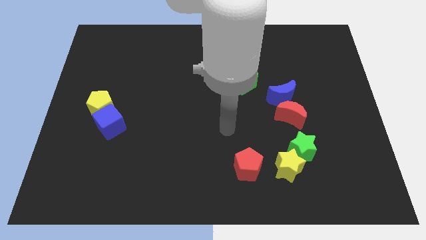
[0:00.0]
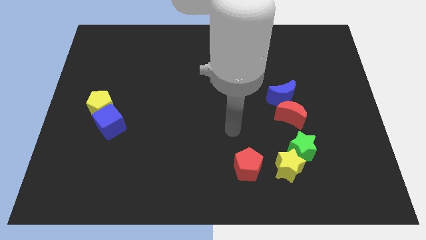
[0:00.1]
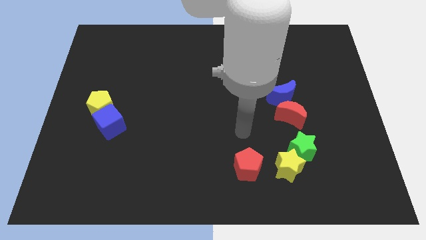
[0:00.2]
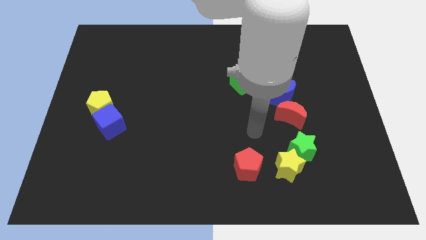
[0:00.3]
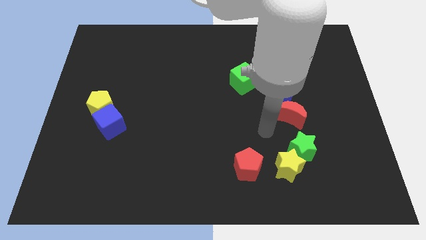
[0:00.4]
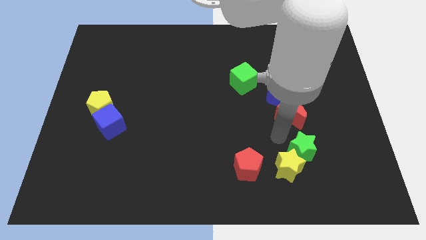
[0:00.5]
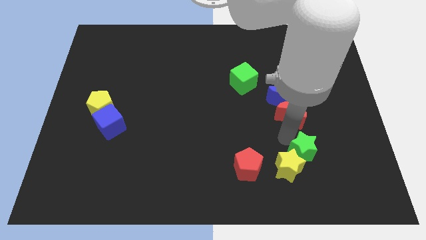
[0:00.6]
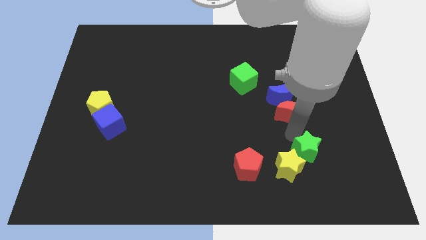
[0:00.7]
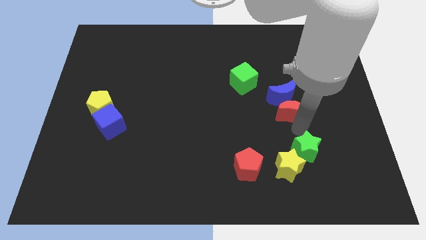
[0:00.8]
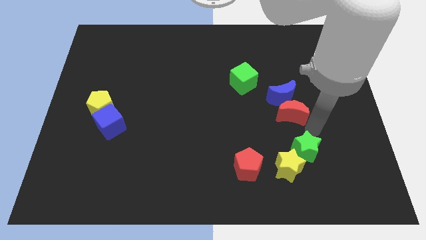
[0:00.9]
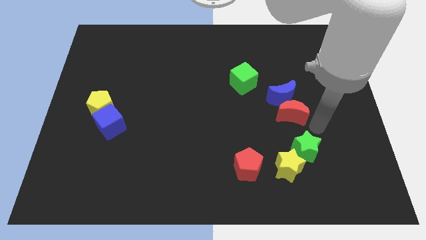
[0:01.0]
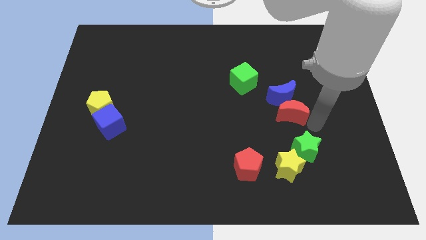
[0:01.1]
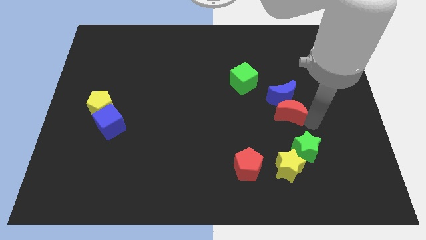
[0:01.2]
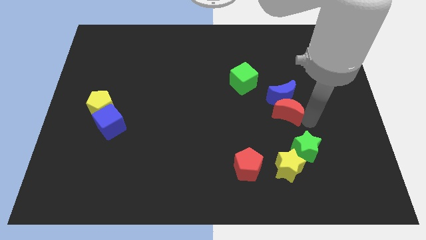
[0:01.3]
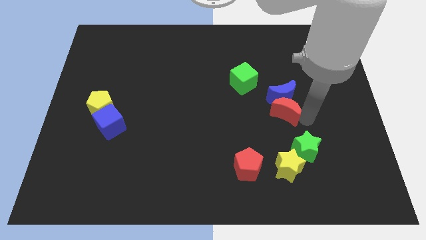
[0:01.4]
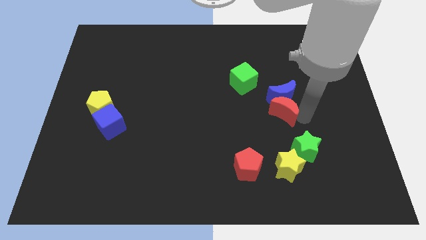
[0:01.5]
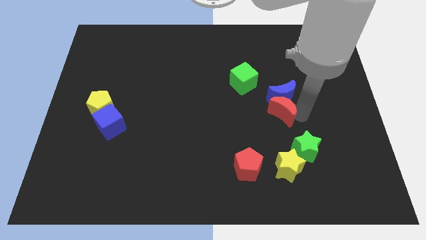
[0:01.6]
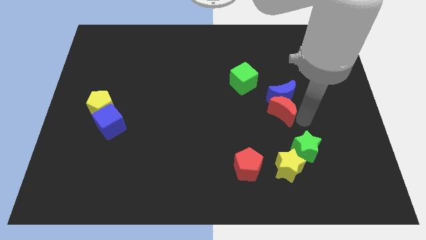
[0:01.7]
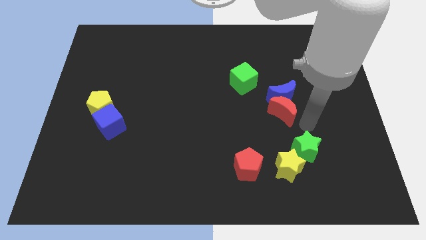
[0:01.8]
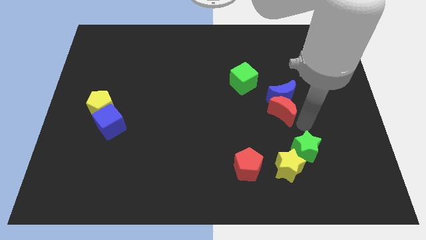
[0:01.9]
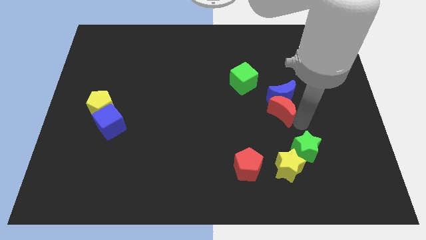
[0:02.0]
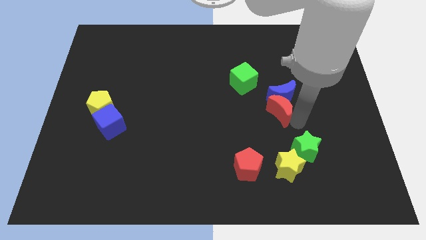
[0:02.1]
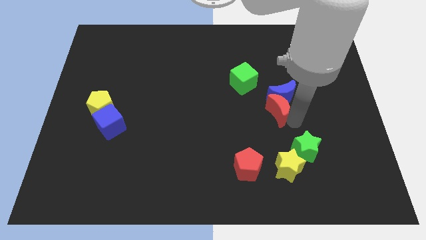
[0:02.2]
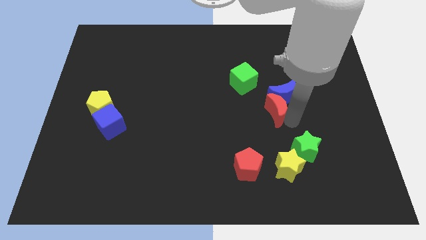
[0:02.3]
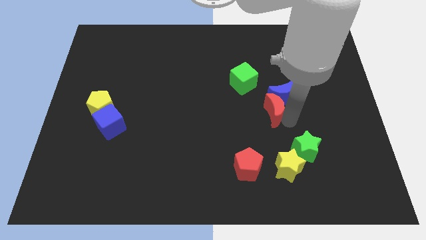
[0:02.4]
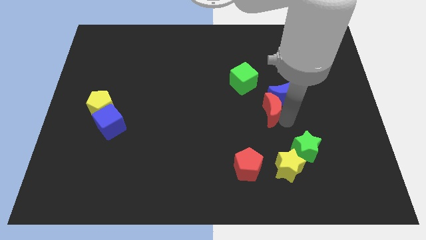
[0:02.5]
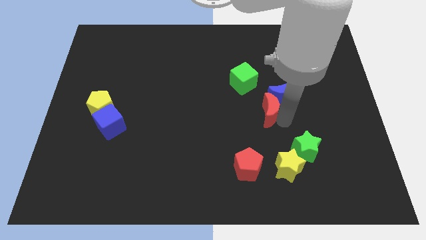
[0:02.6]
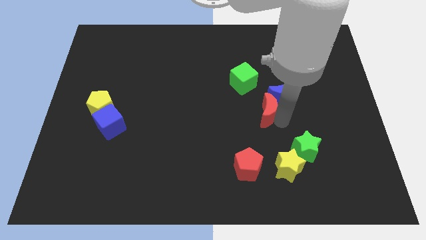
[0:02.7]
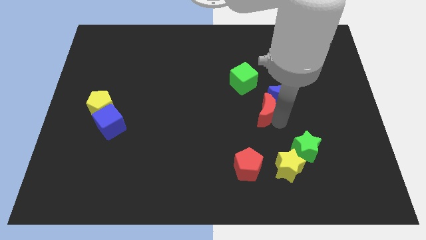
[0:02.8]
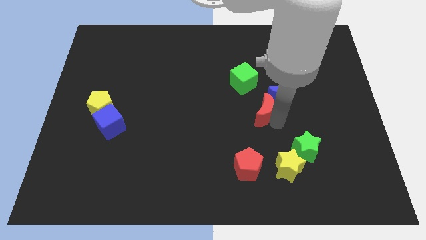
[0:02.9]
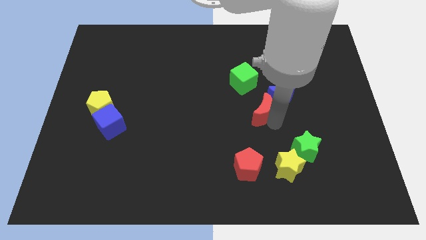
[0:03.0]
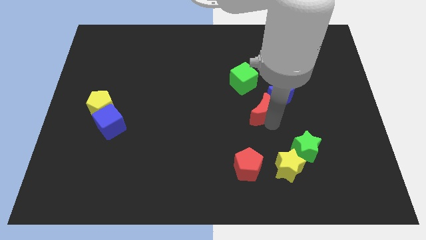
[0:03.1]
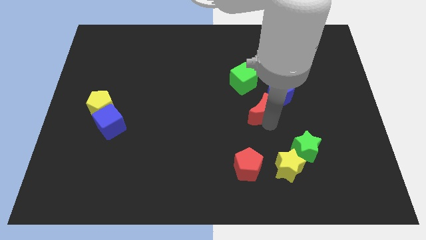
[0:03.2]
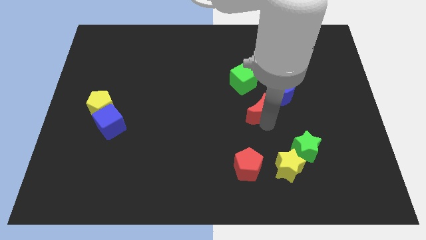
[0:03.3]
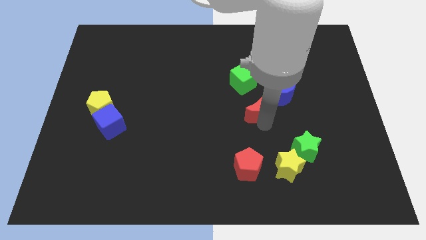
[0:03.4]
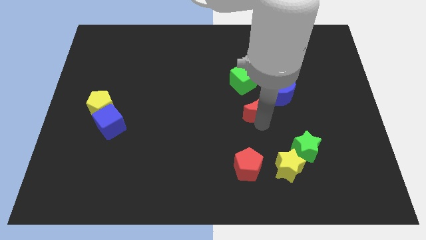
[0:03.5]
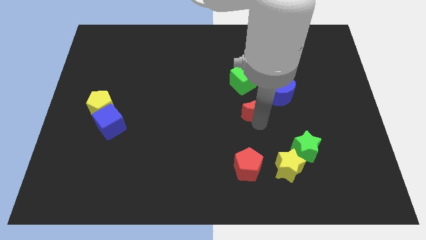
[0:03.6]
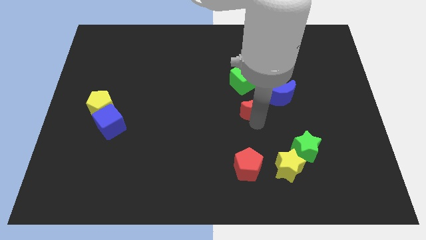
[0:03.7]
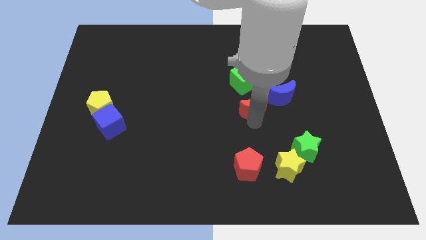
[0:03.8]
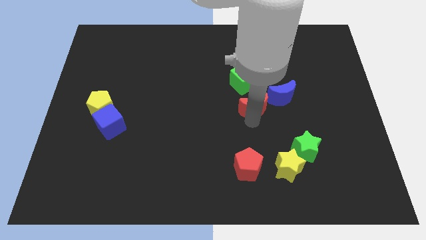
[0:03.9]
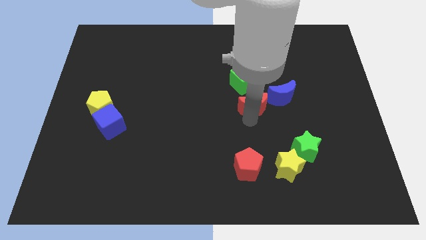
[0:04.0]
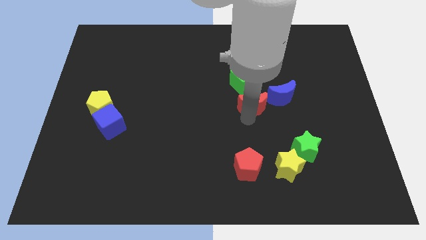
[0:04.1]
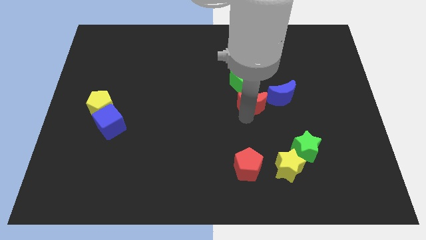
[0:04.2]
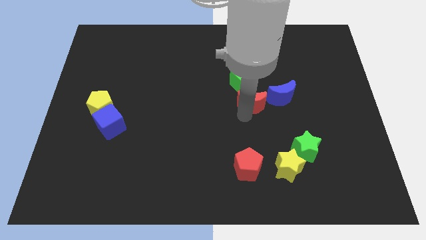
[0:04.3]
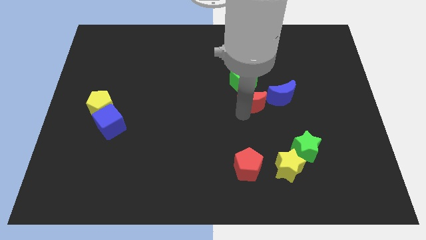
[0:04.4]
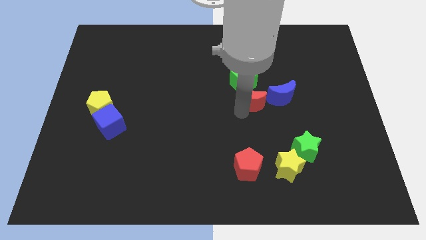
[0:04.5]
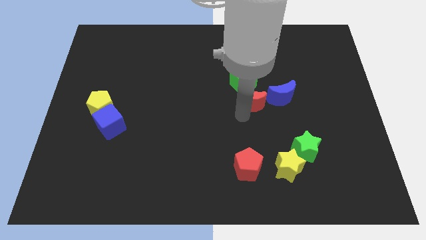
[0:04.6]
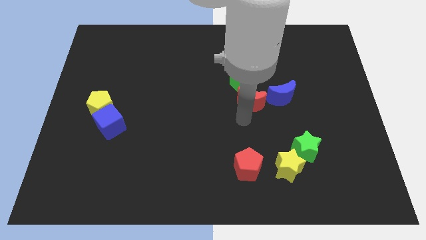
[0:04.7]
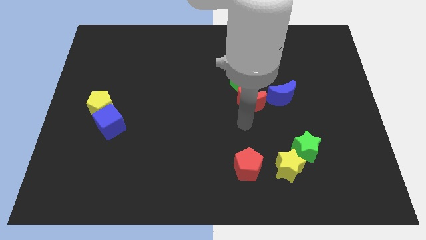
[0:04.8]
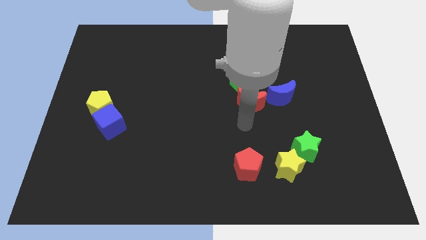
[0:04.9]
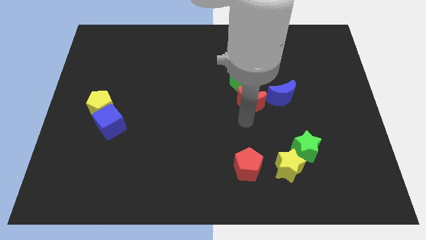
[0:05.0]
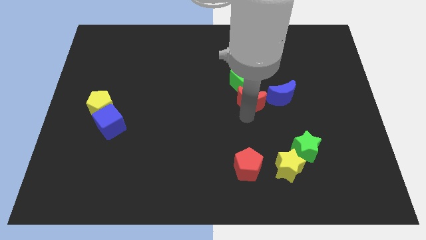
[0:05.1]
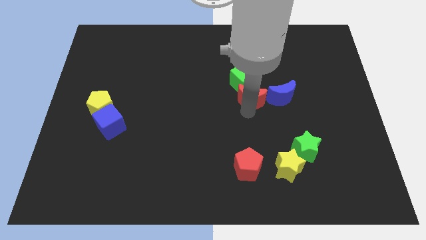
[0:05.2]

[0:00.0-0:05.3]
push the red moon towards the green cube

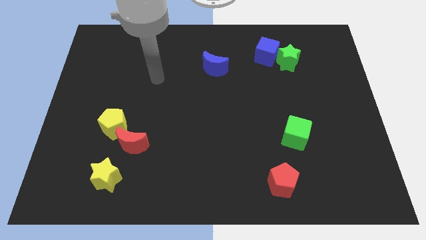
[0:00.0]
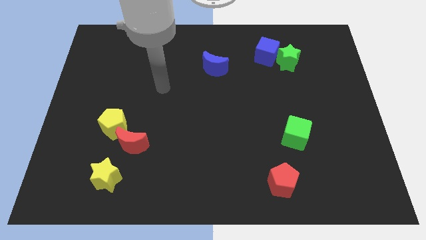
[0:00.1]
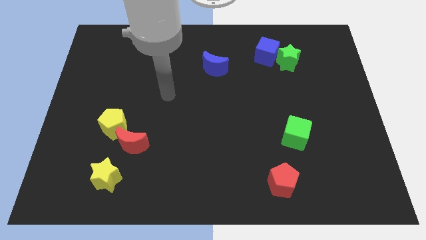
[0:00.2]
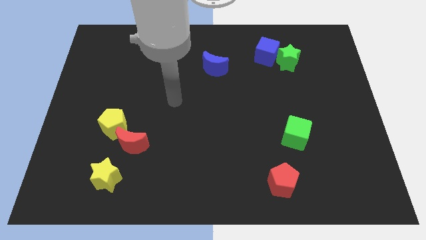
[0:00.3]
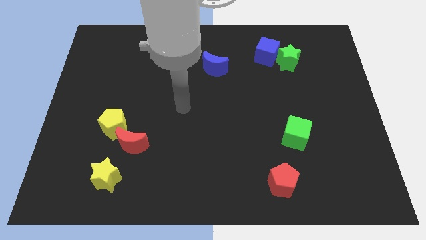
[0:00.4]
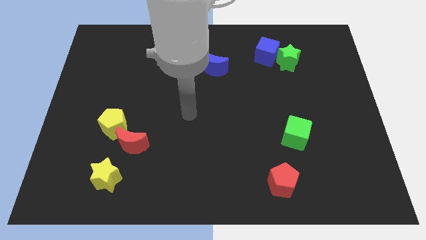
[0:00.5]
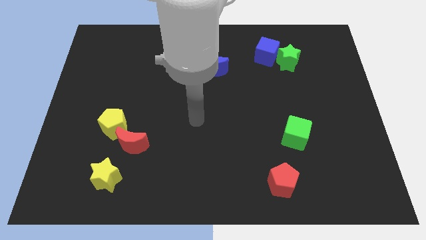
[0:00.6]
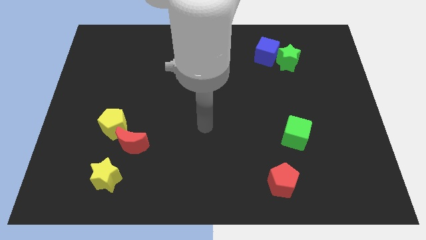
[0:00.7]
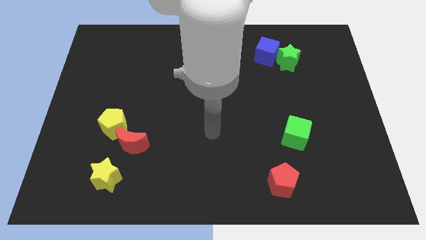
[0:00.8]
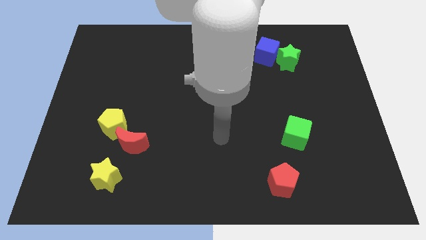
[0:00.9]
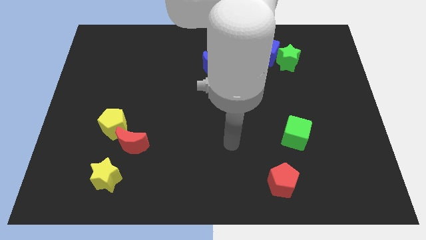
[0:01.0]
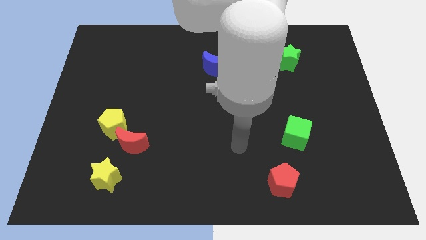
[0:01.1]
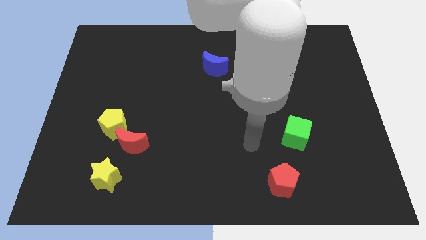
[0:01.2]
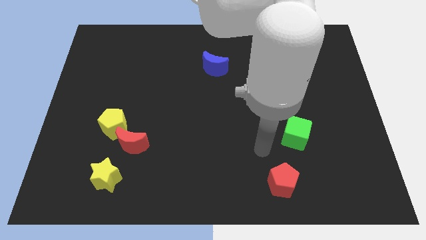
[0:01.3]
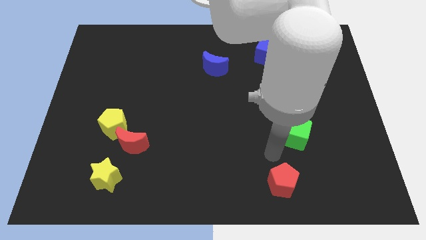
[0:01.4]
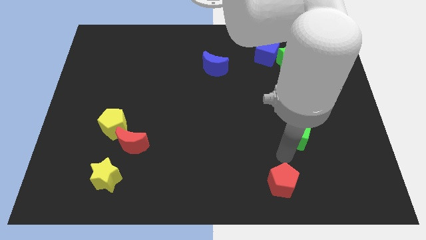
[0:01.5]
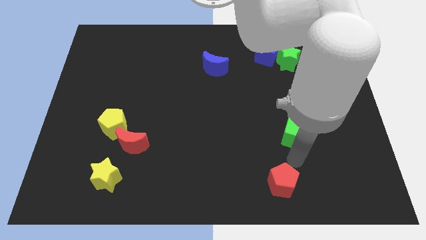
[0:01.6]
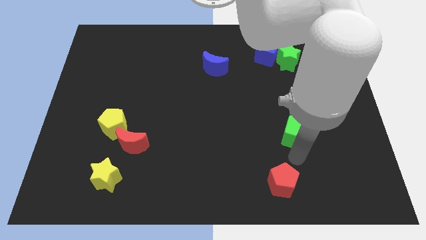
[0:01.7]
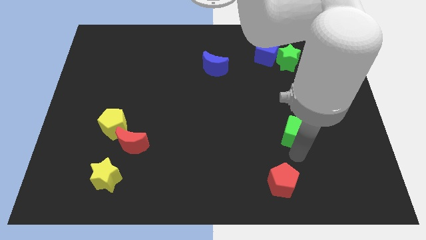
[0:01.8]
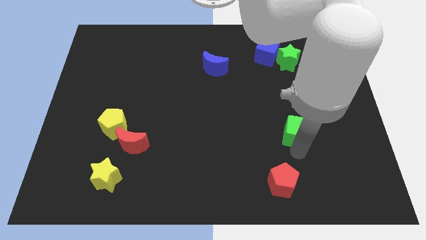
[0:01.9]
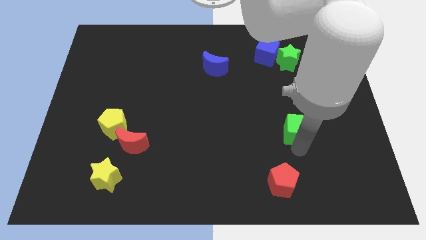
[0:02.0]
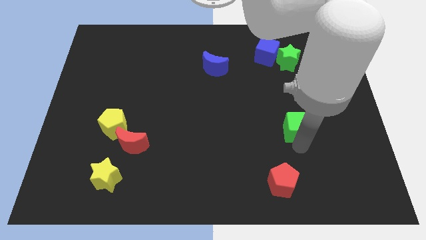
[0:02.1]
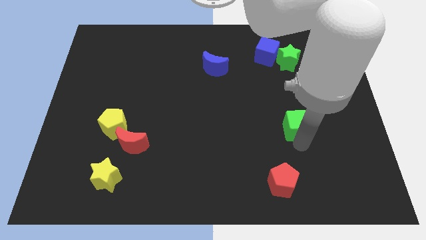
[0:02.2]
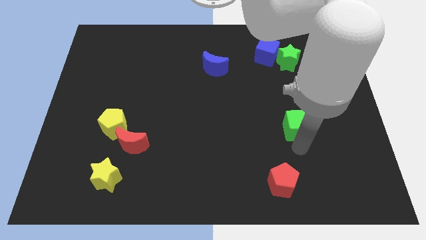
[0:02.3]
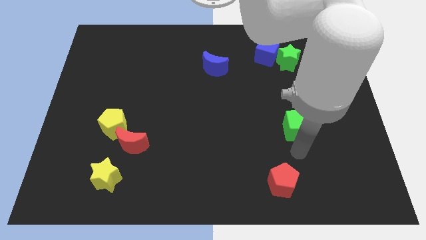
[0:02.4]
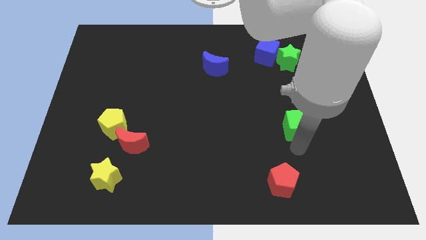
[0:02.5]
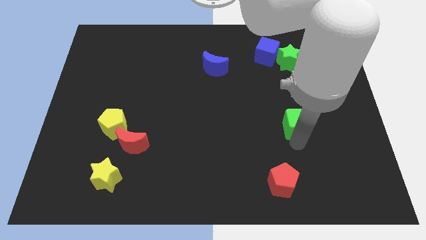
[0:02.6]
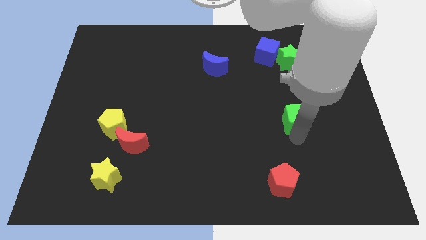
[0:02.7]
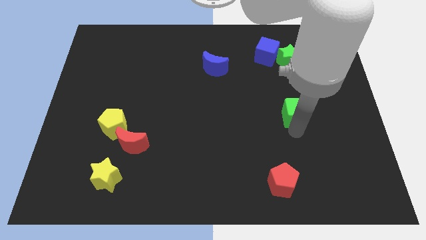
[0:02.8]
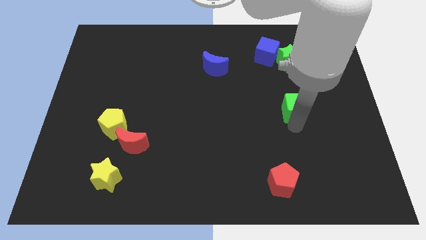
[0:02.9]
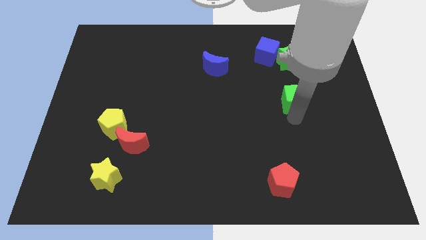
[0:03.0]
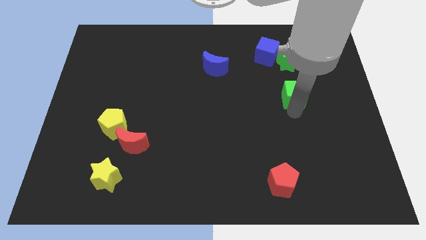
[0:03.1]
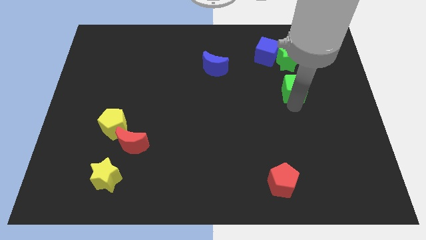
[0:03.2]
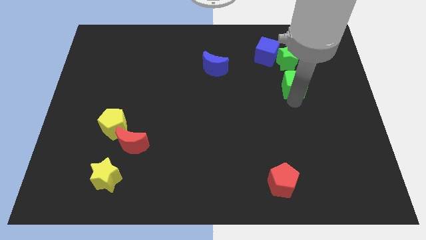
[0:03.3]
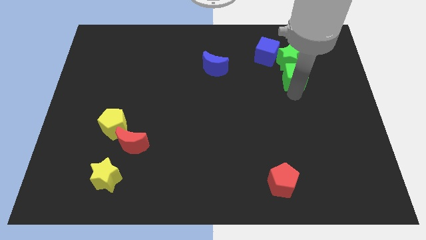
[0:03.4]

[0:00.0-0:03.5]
push the green cube close to the green star
